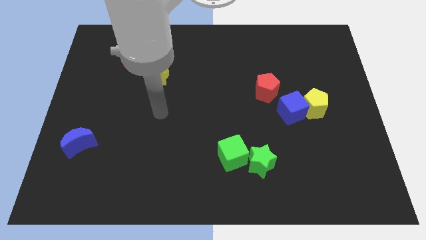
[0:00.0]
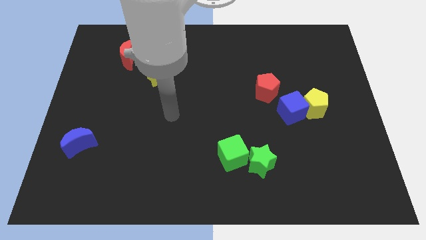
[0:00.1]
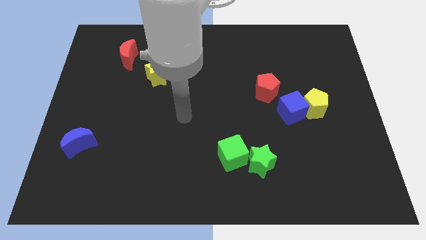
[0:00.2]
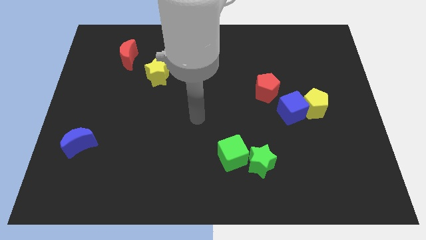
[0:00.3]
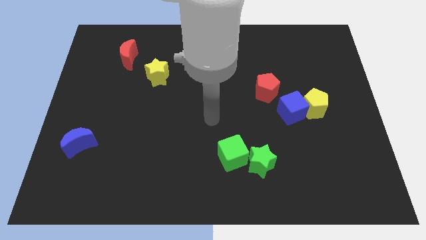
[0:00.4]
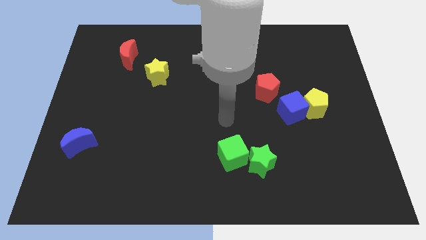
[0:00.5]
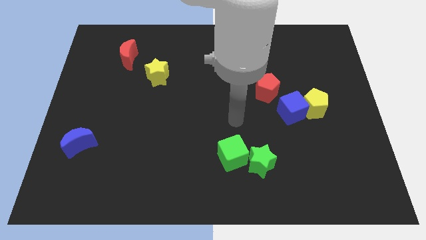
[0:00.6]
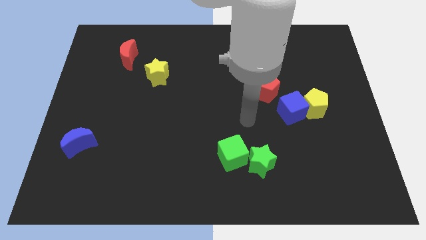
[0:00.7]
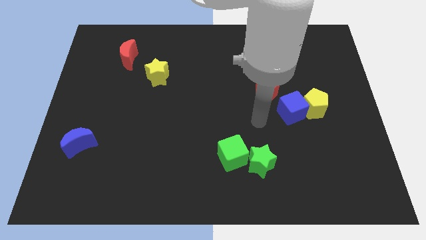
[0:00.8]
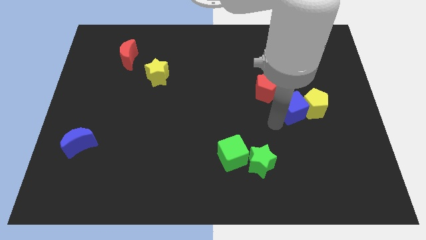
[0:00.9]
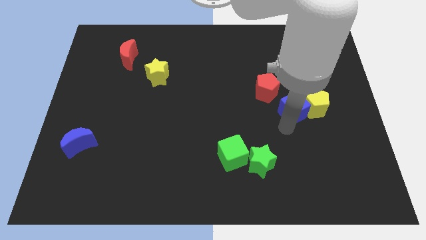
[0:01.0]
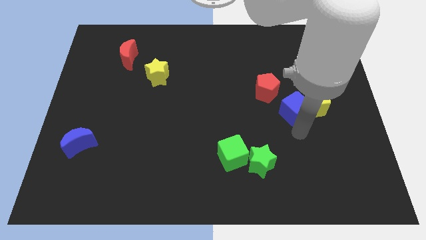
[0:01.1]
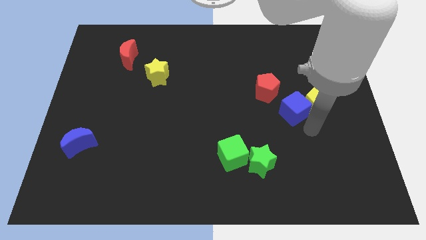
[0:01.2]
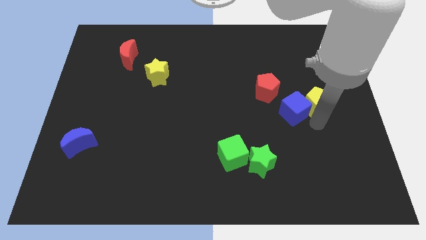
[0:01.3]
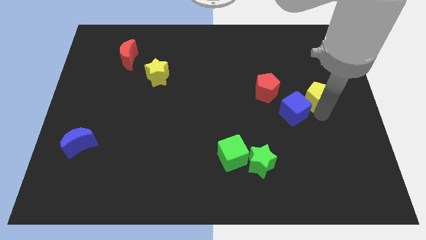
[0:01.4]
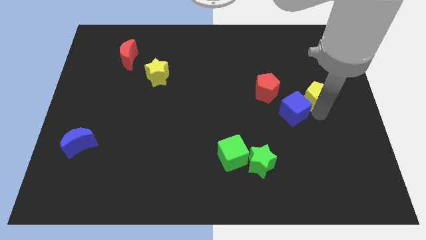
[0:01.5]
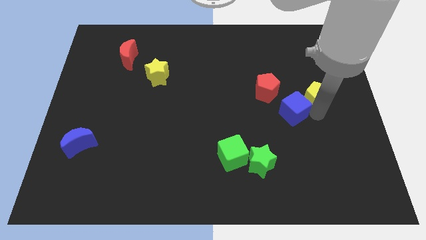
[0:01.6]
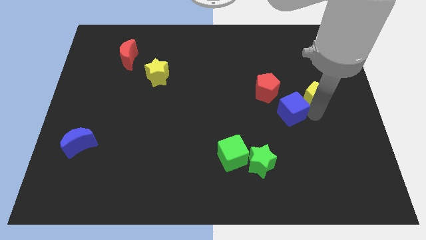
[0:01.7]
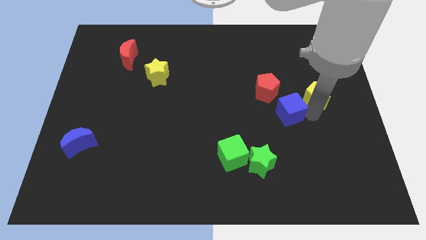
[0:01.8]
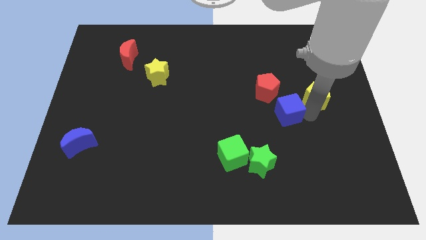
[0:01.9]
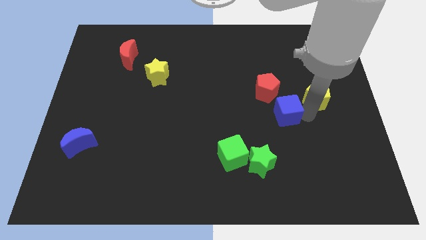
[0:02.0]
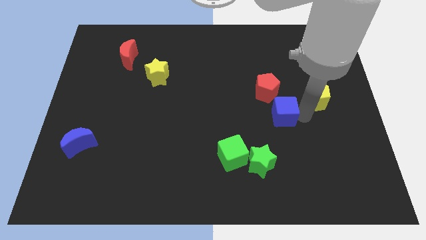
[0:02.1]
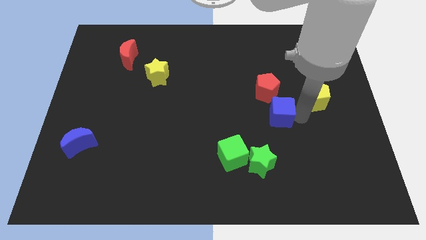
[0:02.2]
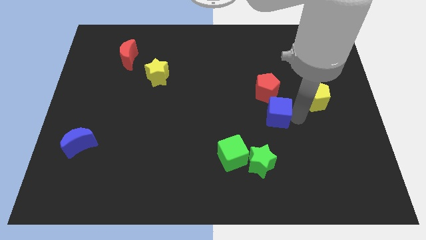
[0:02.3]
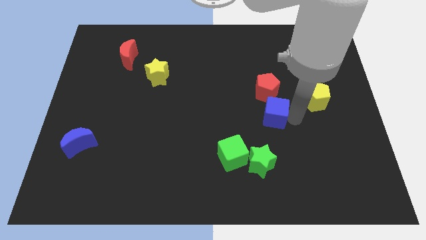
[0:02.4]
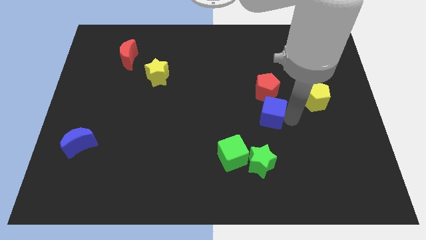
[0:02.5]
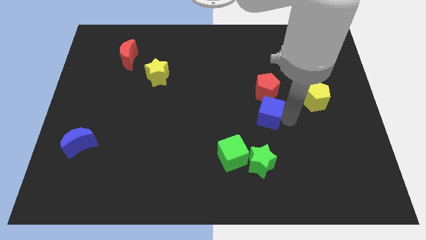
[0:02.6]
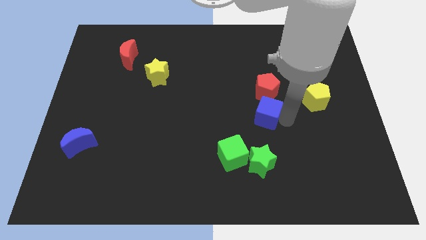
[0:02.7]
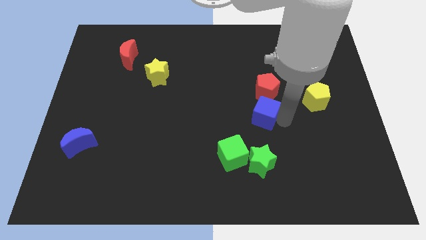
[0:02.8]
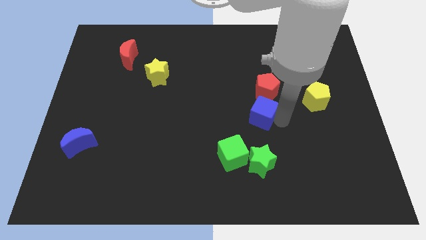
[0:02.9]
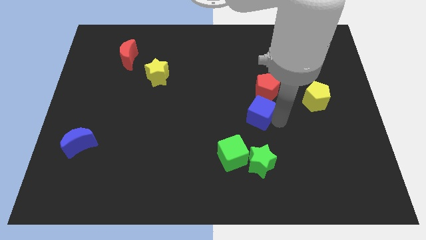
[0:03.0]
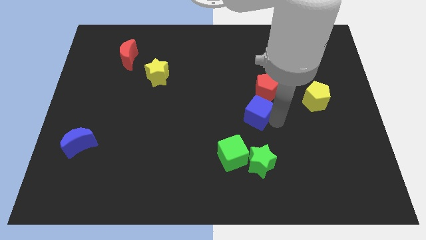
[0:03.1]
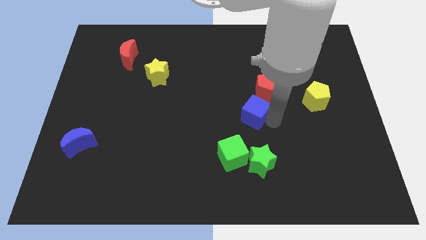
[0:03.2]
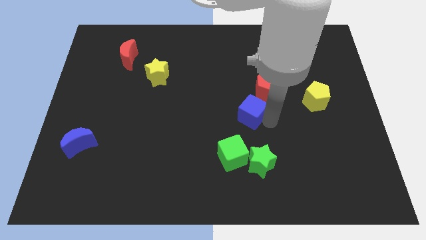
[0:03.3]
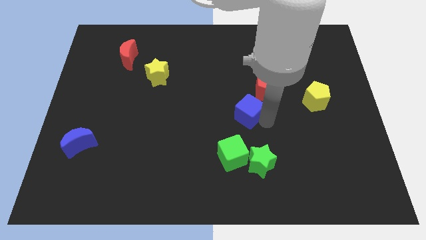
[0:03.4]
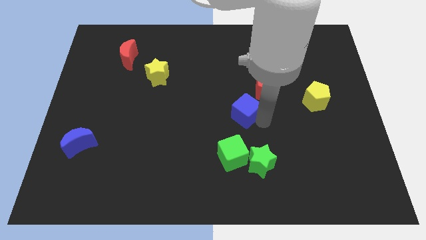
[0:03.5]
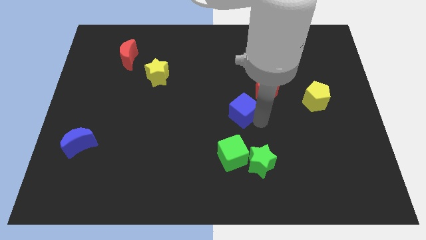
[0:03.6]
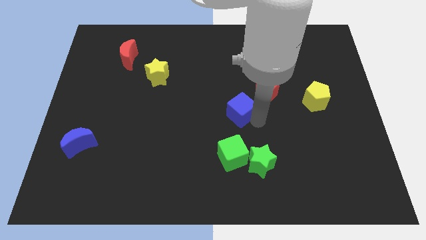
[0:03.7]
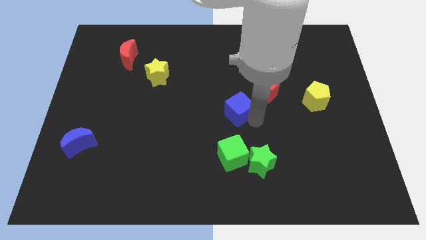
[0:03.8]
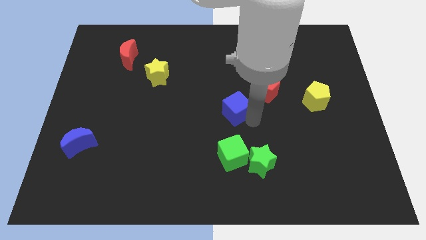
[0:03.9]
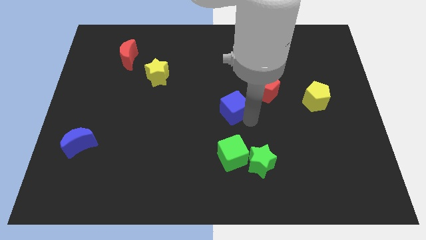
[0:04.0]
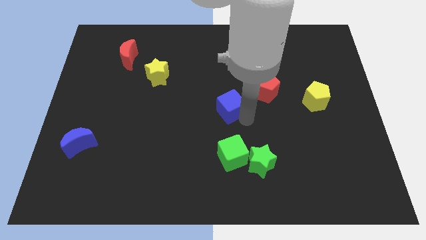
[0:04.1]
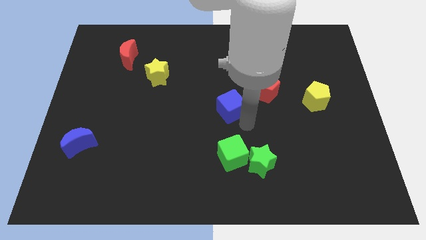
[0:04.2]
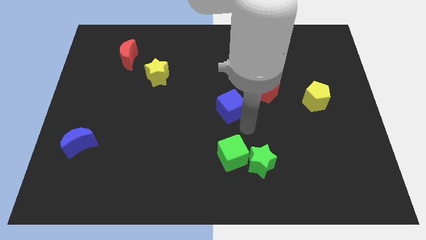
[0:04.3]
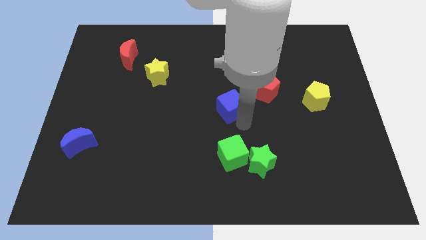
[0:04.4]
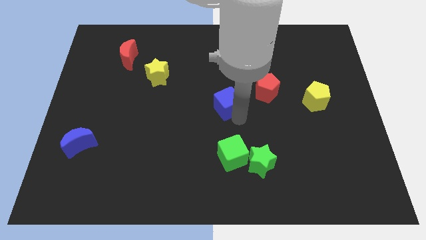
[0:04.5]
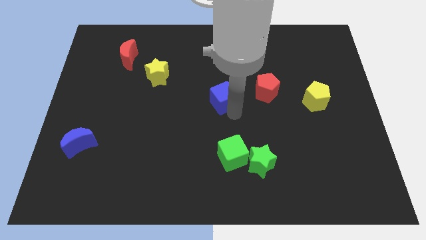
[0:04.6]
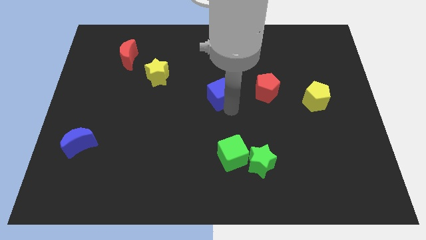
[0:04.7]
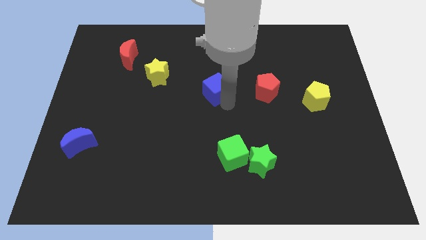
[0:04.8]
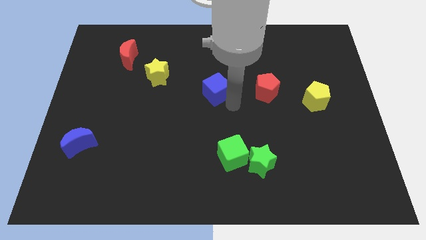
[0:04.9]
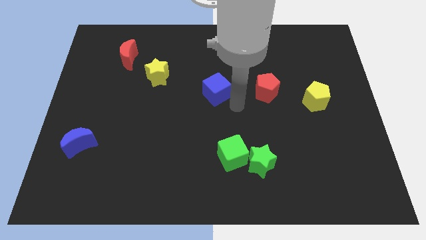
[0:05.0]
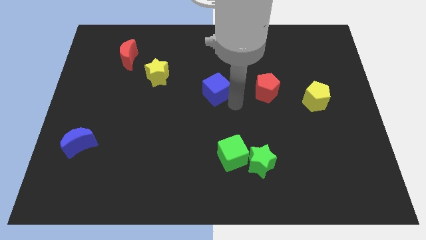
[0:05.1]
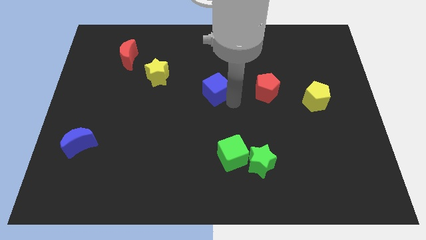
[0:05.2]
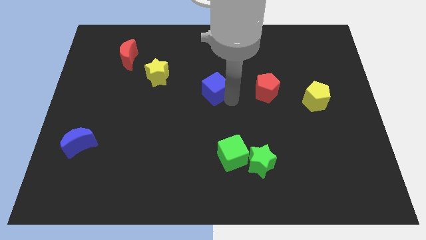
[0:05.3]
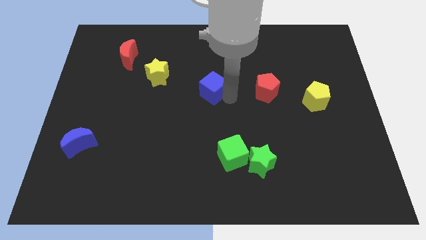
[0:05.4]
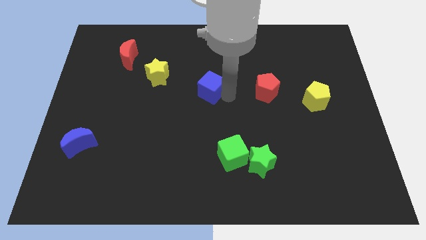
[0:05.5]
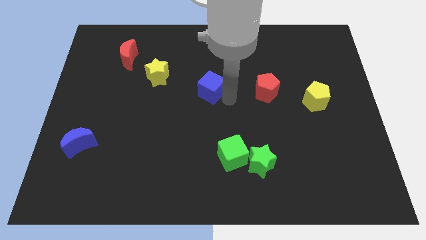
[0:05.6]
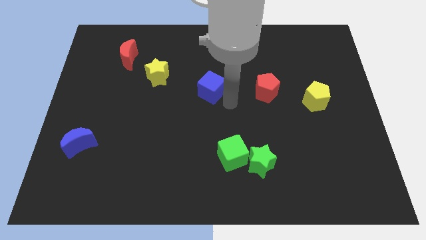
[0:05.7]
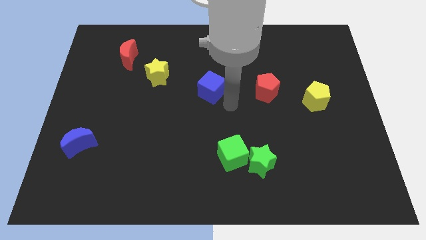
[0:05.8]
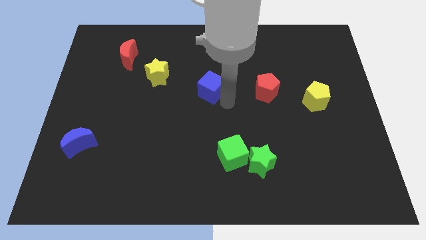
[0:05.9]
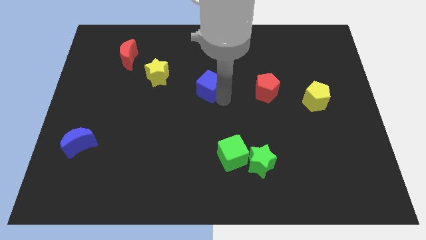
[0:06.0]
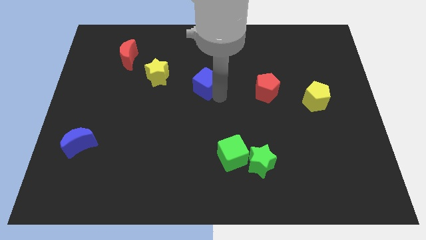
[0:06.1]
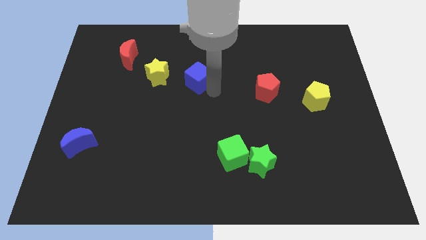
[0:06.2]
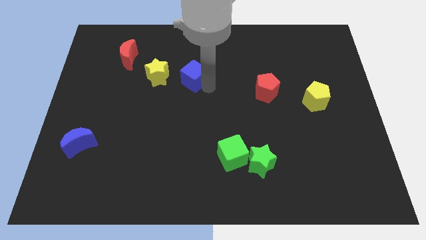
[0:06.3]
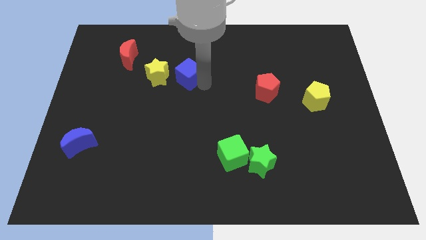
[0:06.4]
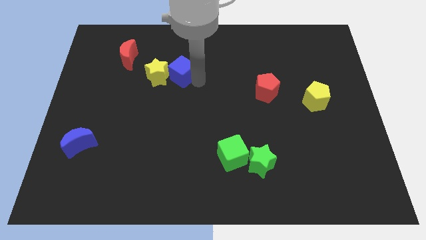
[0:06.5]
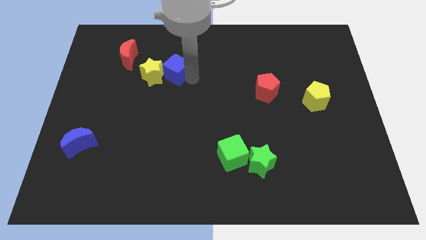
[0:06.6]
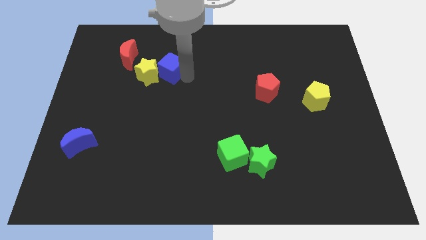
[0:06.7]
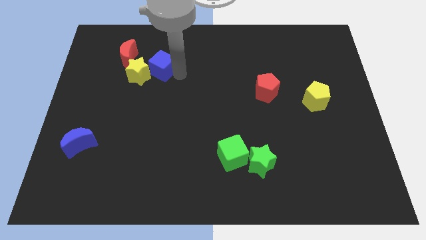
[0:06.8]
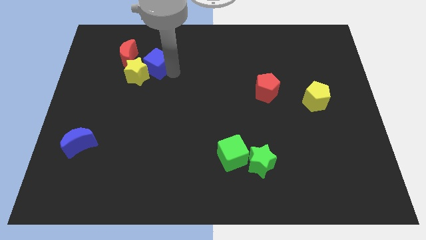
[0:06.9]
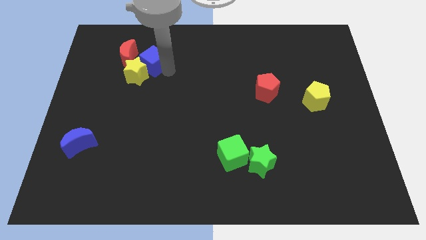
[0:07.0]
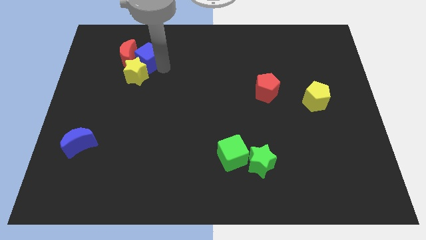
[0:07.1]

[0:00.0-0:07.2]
push the blue cube to the red moon

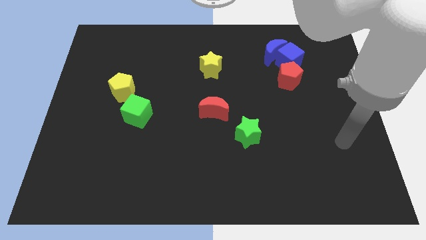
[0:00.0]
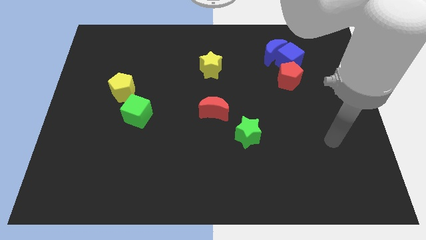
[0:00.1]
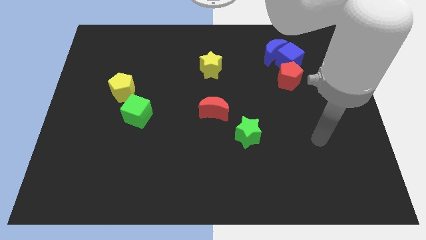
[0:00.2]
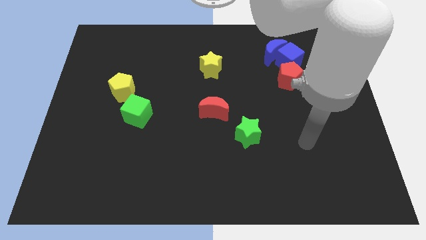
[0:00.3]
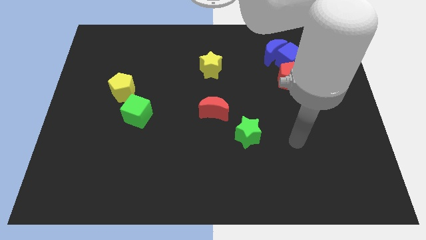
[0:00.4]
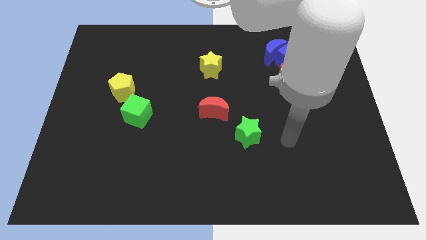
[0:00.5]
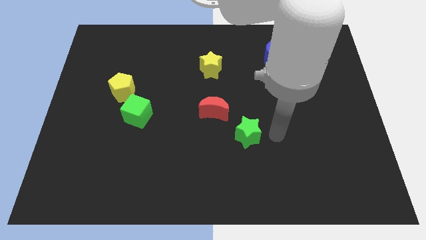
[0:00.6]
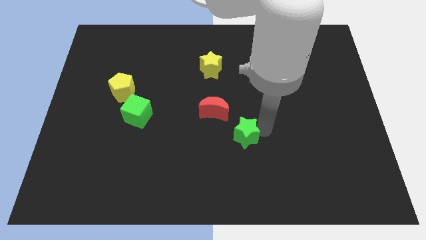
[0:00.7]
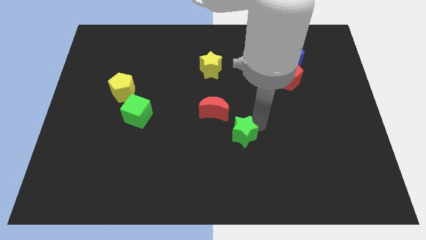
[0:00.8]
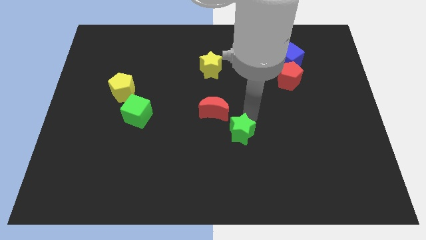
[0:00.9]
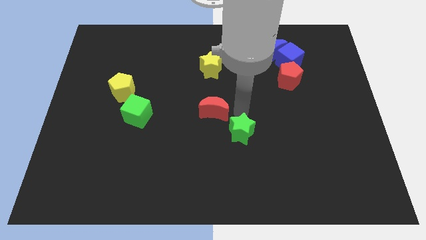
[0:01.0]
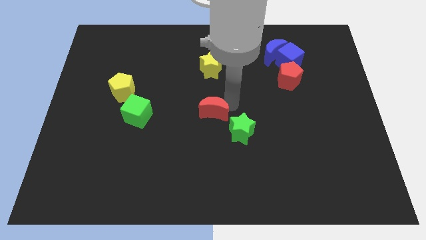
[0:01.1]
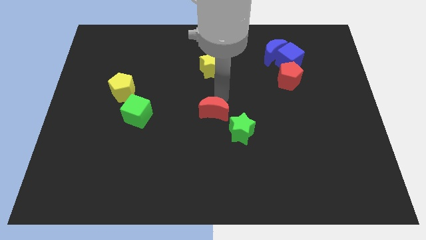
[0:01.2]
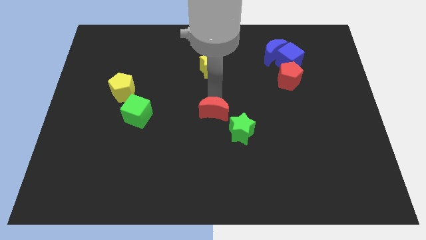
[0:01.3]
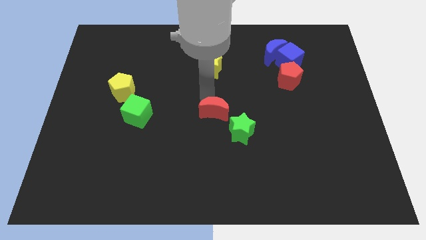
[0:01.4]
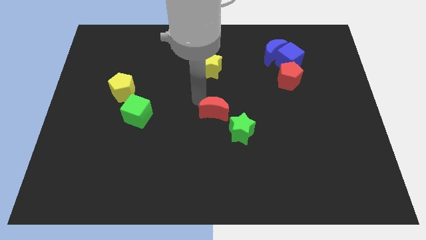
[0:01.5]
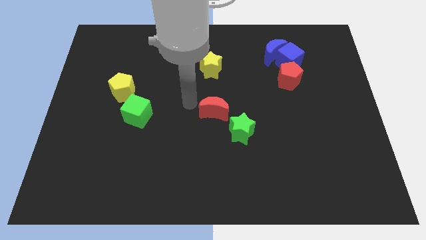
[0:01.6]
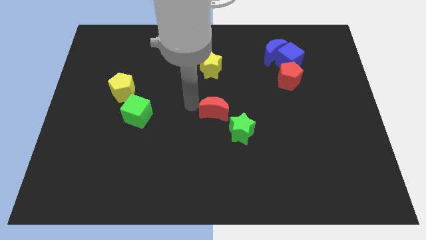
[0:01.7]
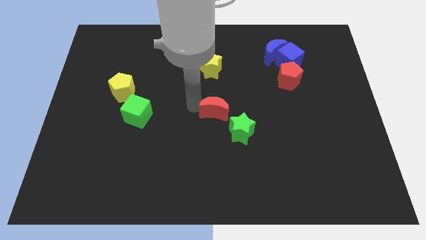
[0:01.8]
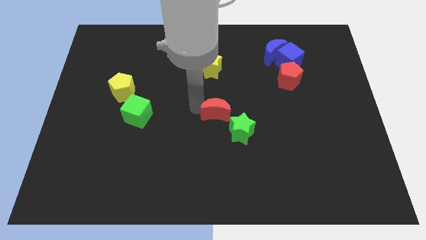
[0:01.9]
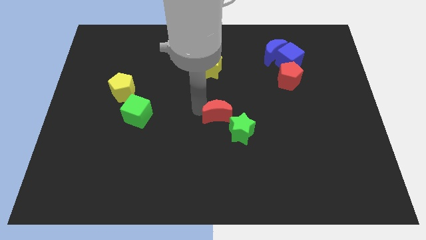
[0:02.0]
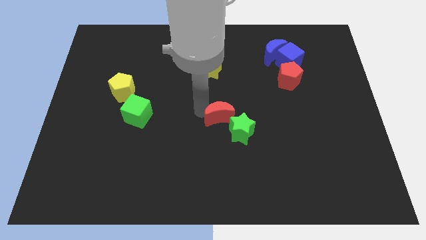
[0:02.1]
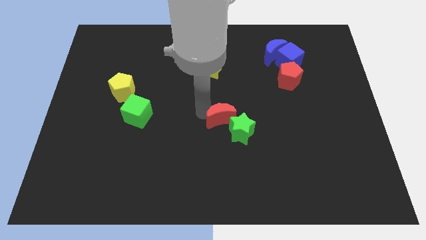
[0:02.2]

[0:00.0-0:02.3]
slide the red moon towards the green star
